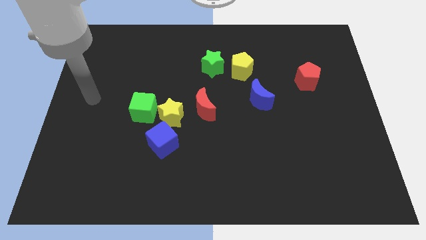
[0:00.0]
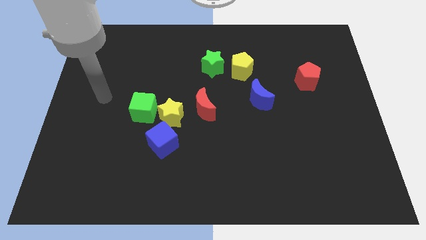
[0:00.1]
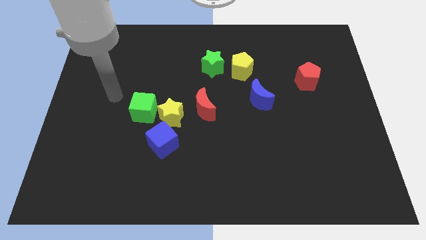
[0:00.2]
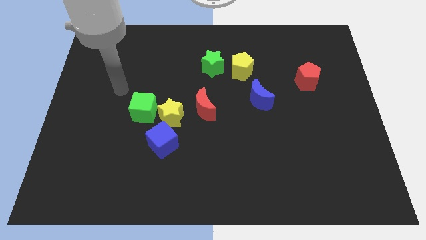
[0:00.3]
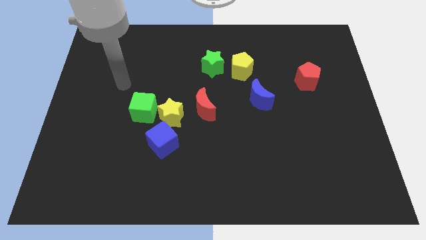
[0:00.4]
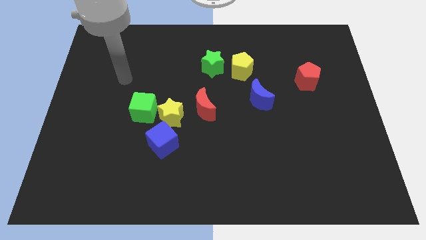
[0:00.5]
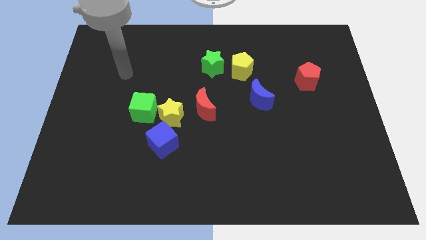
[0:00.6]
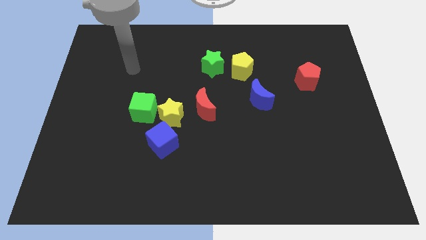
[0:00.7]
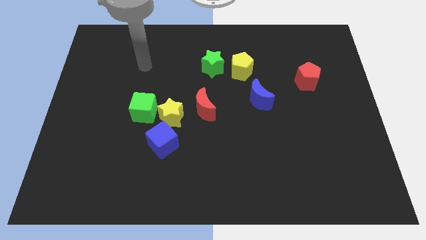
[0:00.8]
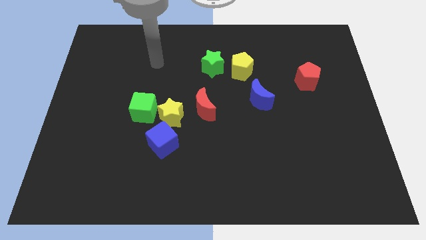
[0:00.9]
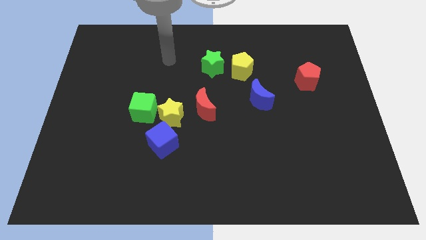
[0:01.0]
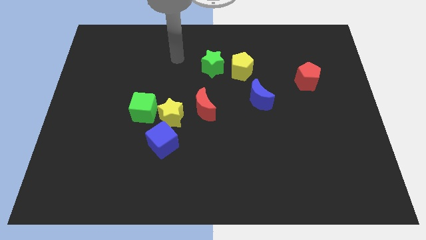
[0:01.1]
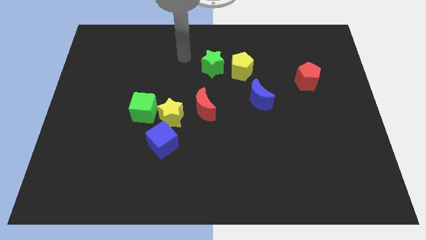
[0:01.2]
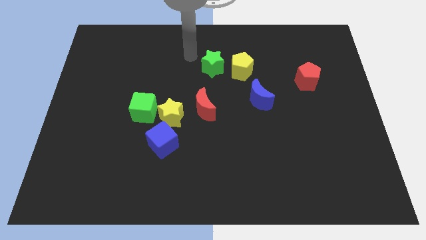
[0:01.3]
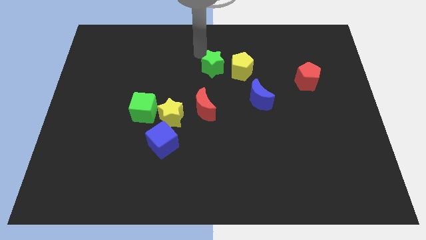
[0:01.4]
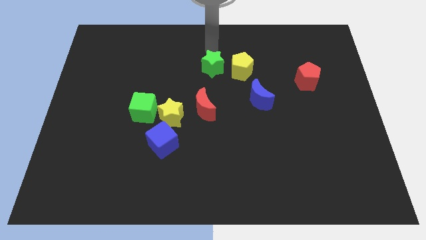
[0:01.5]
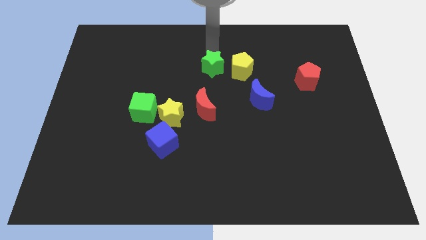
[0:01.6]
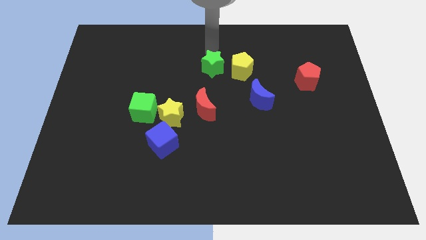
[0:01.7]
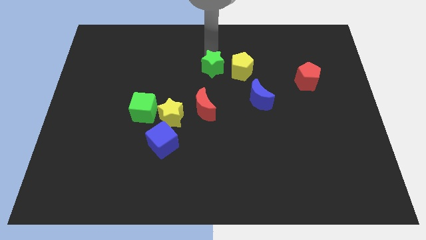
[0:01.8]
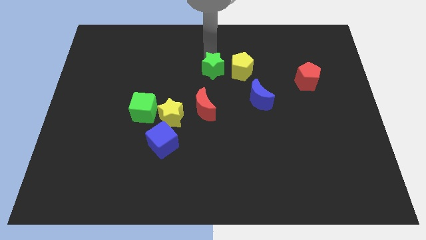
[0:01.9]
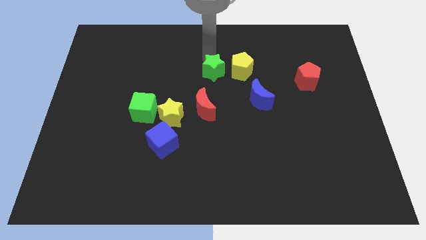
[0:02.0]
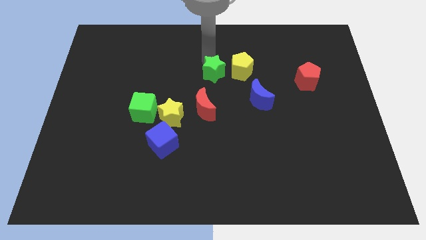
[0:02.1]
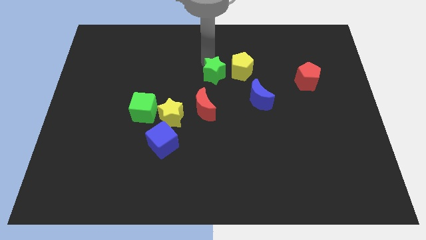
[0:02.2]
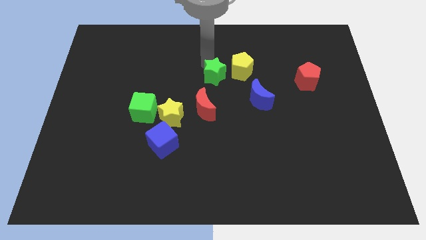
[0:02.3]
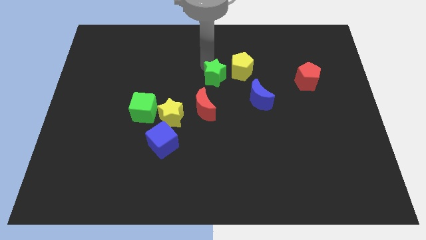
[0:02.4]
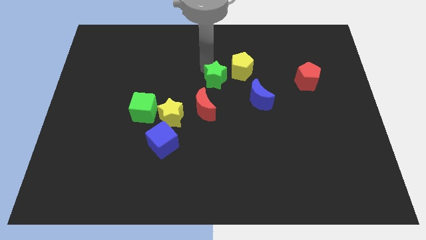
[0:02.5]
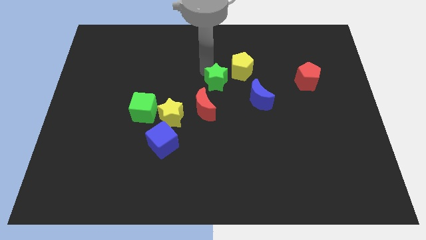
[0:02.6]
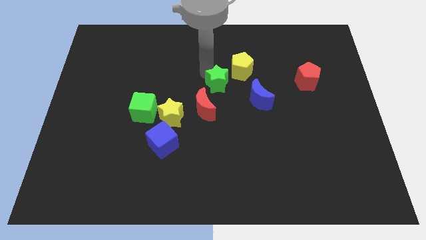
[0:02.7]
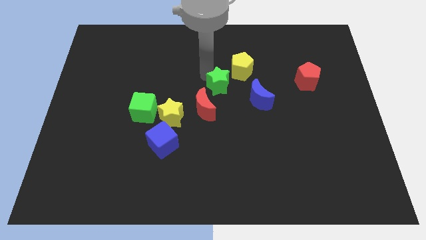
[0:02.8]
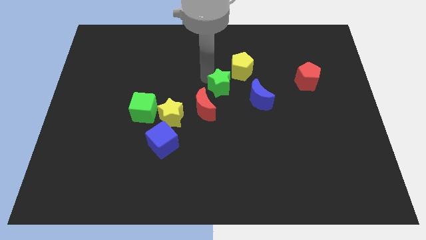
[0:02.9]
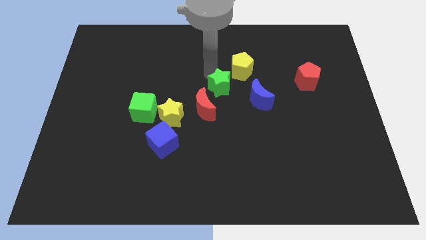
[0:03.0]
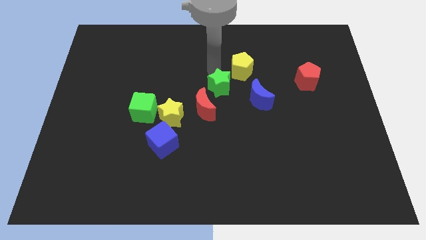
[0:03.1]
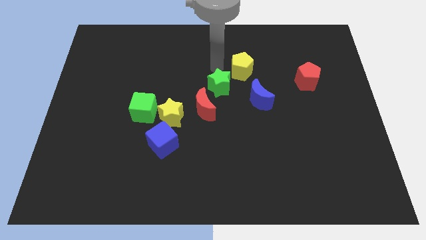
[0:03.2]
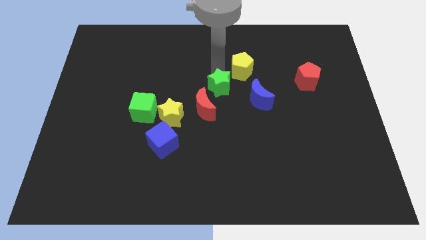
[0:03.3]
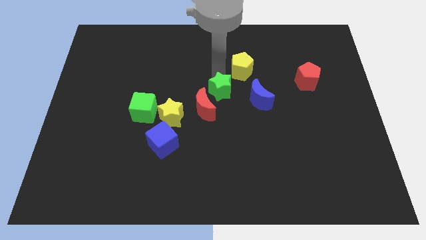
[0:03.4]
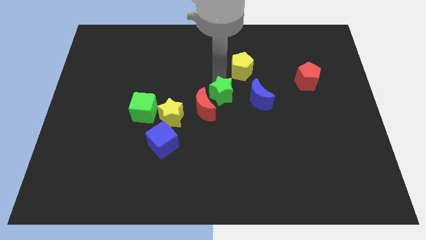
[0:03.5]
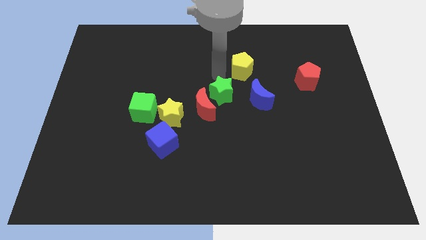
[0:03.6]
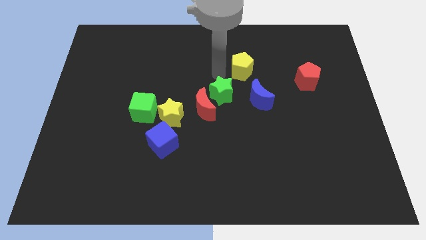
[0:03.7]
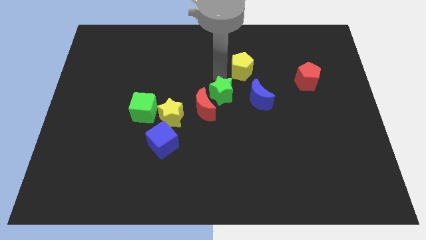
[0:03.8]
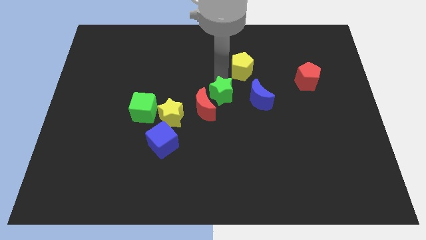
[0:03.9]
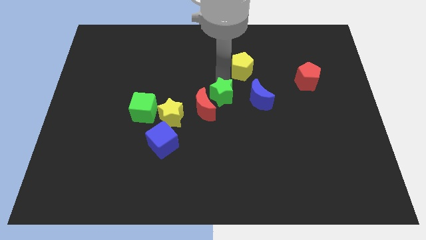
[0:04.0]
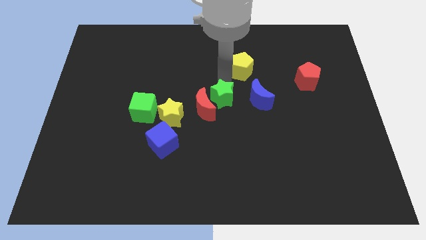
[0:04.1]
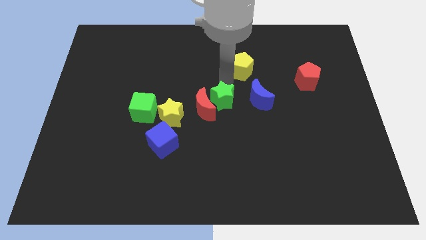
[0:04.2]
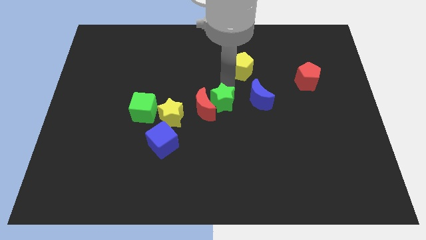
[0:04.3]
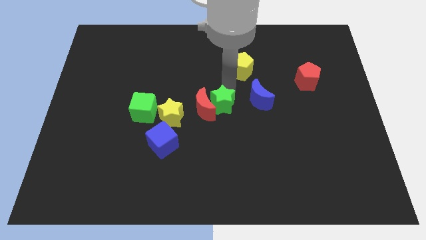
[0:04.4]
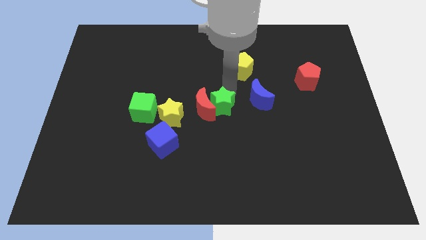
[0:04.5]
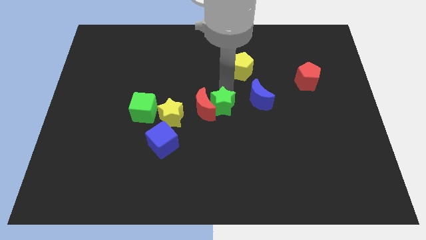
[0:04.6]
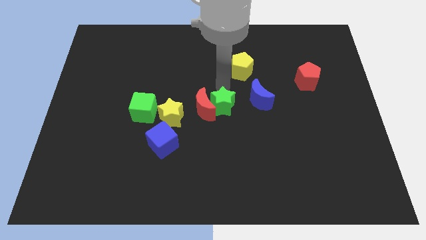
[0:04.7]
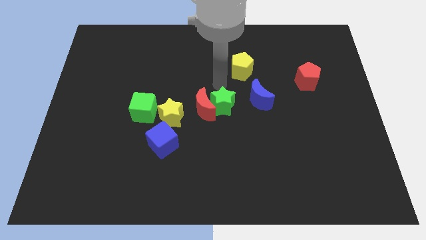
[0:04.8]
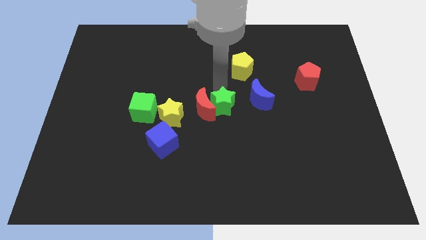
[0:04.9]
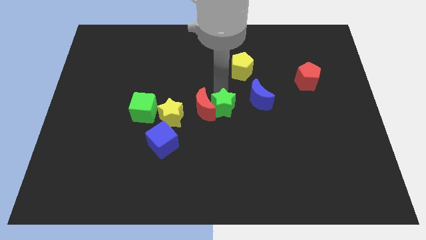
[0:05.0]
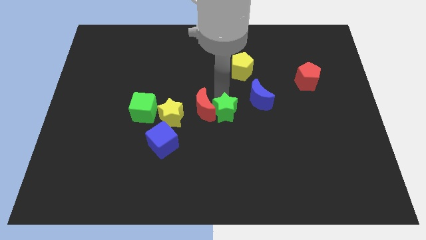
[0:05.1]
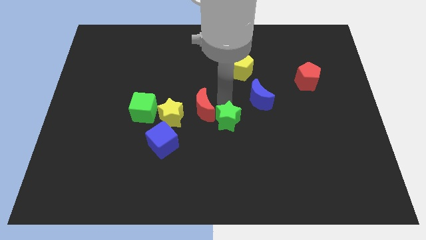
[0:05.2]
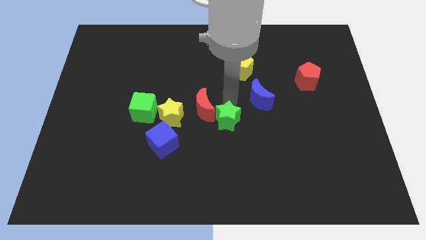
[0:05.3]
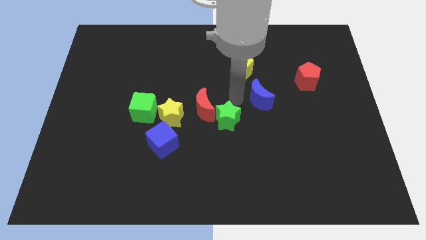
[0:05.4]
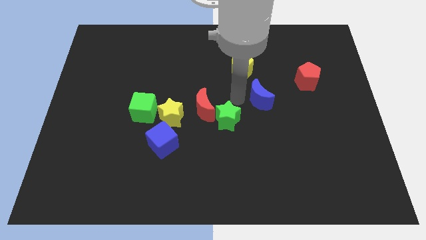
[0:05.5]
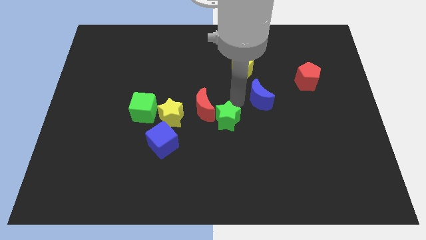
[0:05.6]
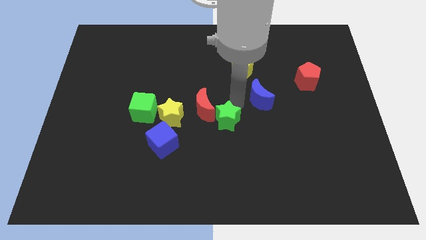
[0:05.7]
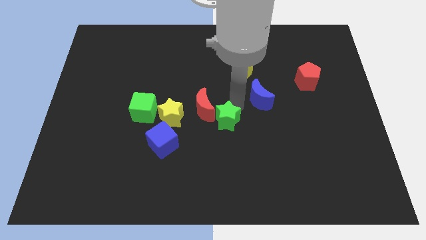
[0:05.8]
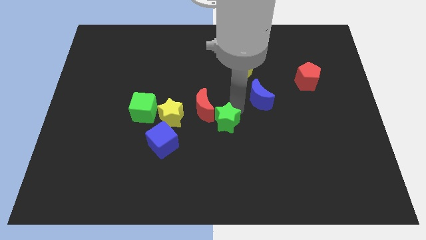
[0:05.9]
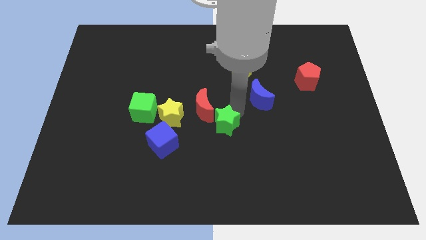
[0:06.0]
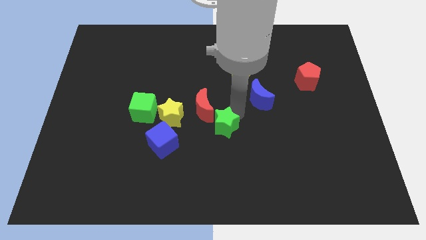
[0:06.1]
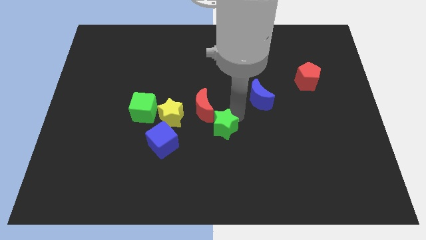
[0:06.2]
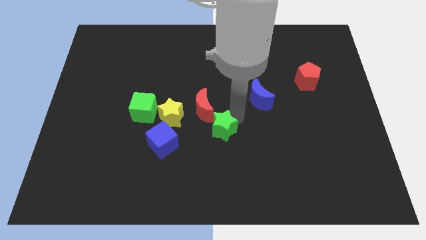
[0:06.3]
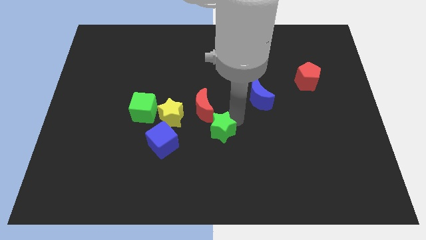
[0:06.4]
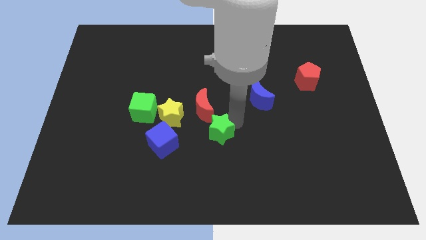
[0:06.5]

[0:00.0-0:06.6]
push the green star downwards

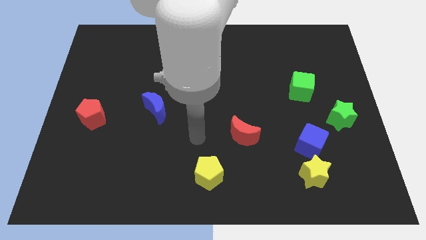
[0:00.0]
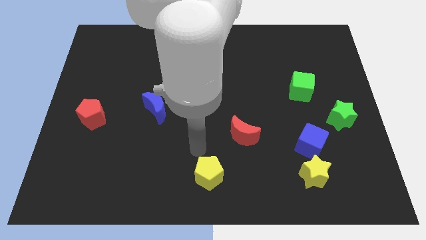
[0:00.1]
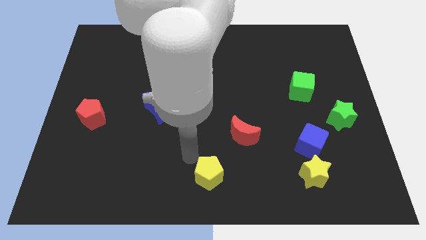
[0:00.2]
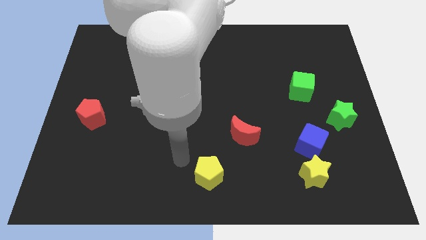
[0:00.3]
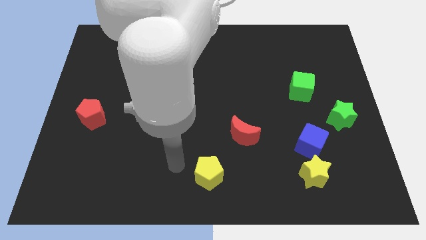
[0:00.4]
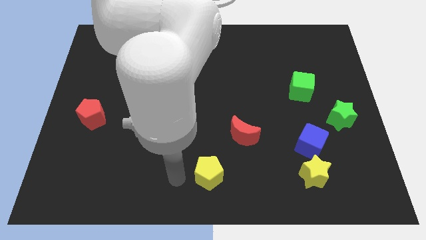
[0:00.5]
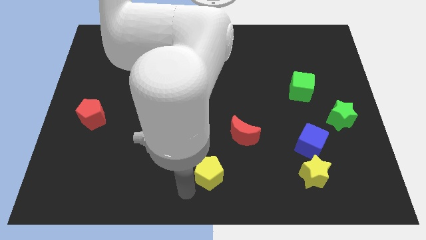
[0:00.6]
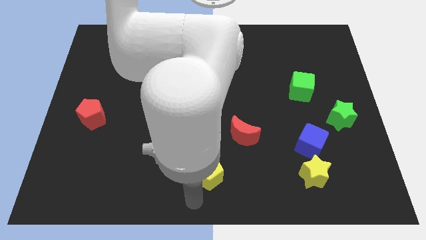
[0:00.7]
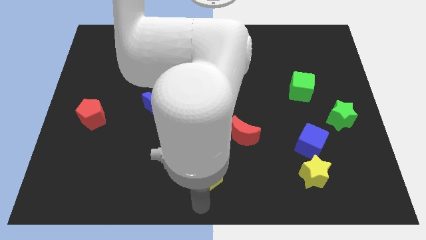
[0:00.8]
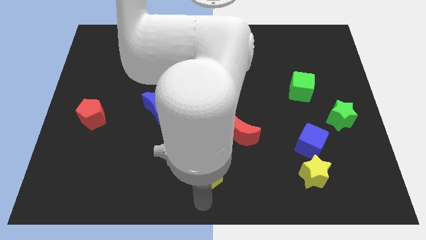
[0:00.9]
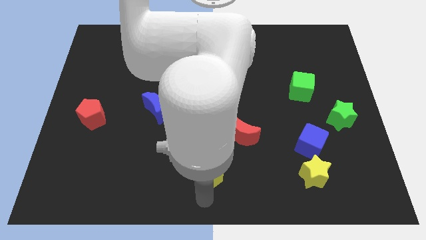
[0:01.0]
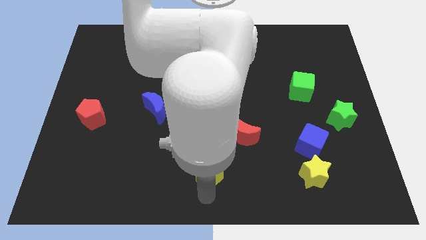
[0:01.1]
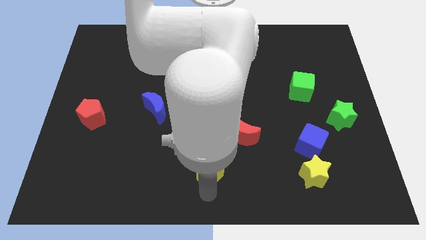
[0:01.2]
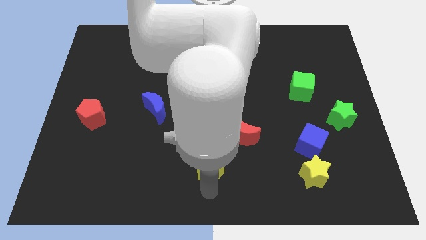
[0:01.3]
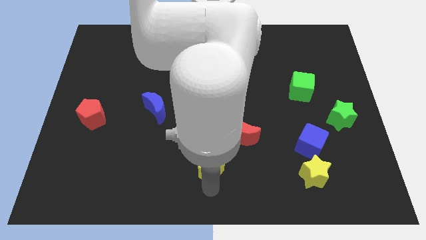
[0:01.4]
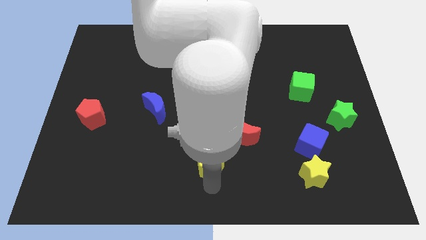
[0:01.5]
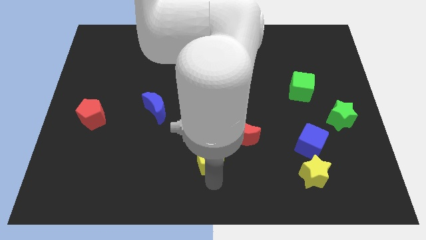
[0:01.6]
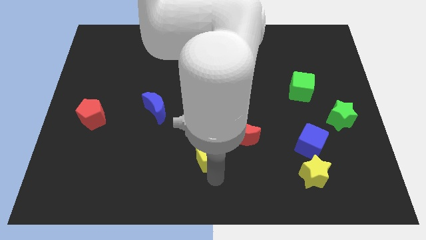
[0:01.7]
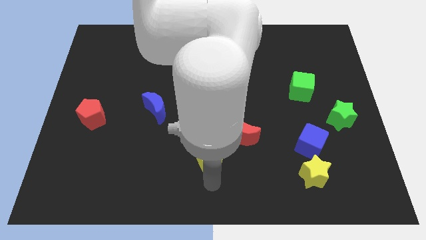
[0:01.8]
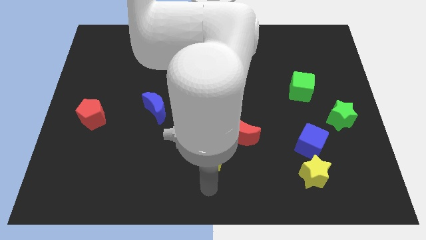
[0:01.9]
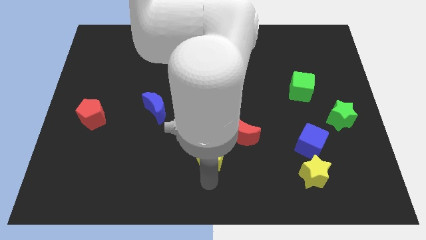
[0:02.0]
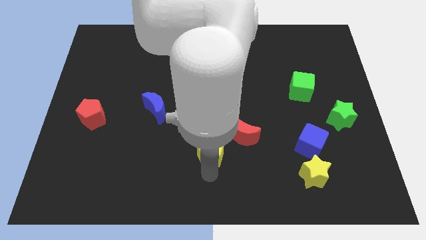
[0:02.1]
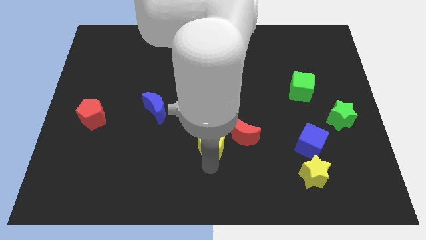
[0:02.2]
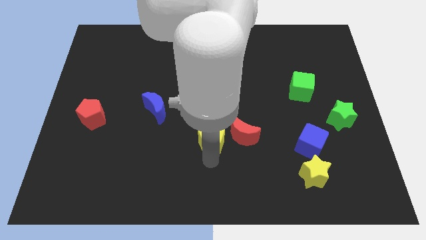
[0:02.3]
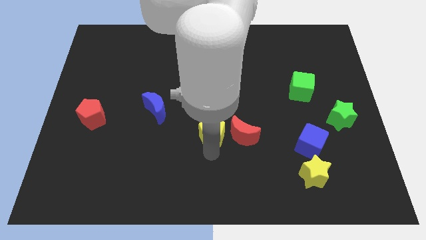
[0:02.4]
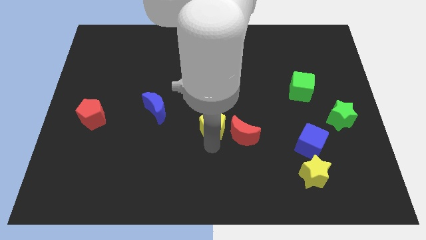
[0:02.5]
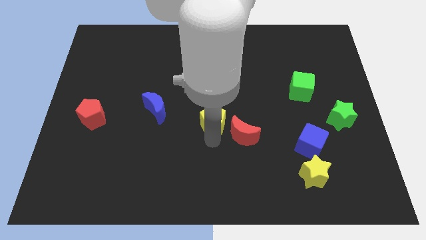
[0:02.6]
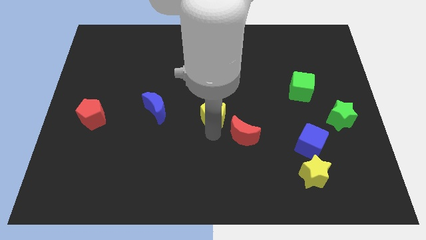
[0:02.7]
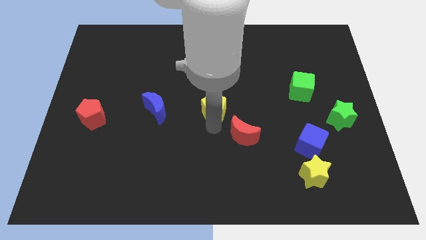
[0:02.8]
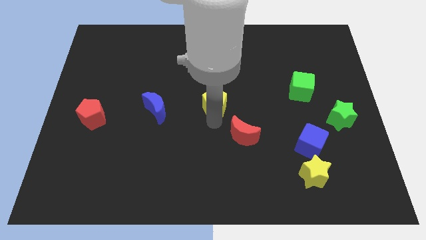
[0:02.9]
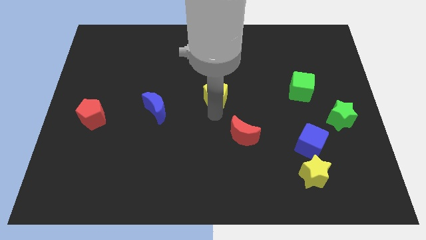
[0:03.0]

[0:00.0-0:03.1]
move the yellow pentagon up
